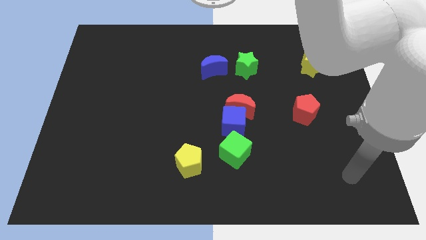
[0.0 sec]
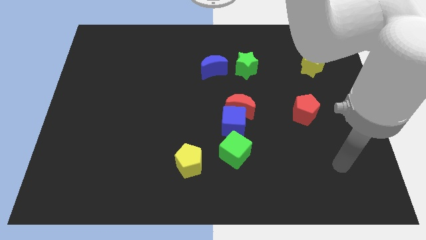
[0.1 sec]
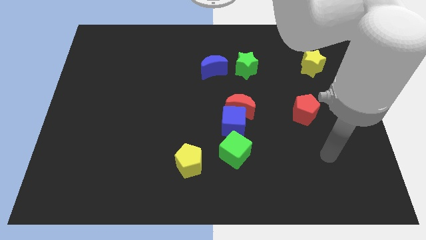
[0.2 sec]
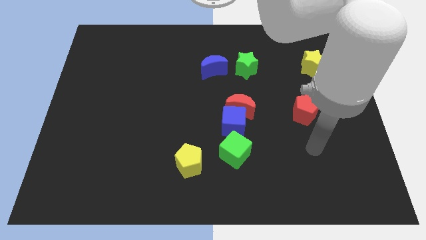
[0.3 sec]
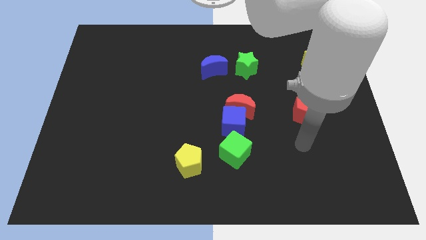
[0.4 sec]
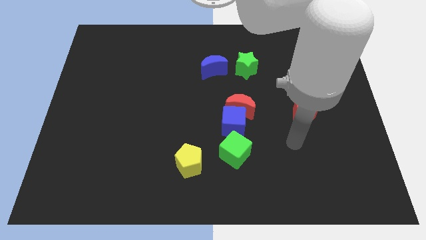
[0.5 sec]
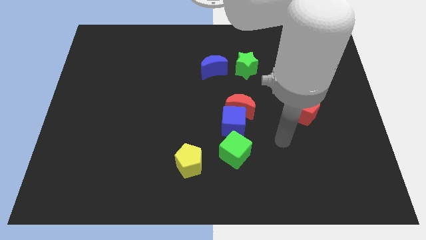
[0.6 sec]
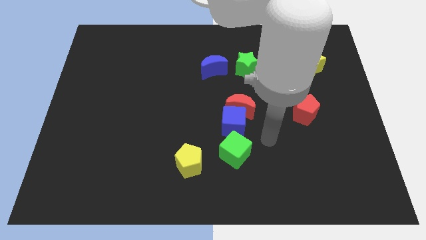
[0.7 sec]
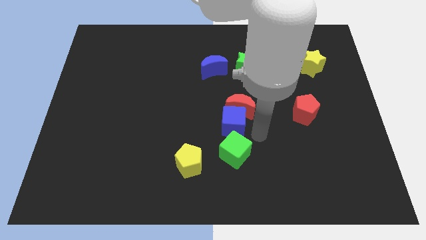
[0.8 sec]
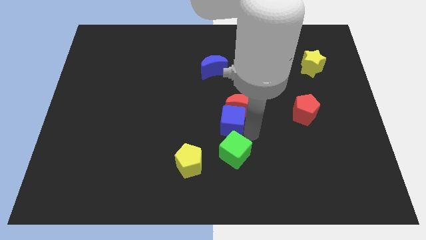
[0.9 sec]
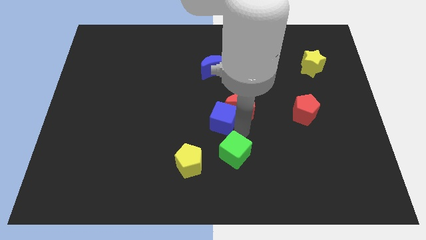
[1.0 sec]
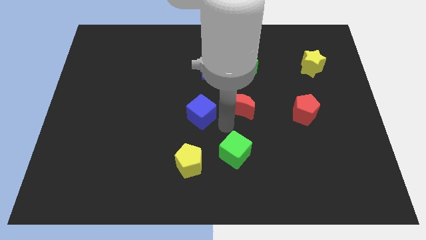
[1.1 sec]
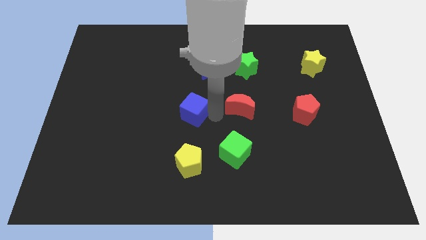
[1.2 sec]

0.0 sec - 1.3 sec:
move the red moon away from the blue cube

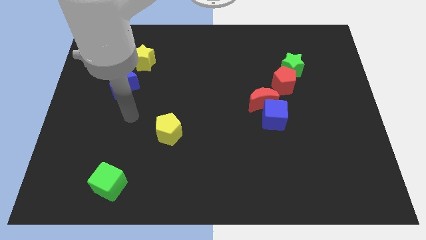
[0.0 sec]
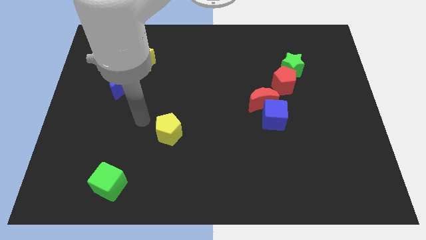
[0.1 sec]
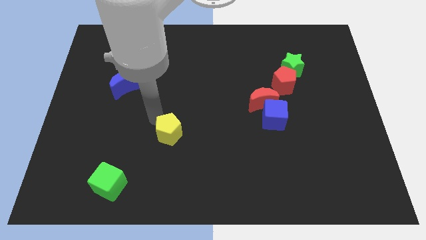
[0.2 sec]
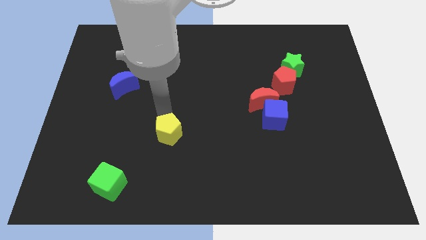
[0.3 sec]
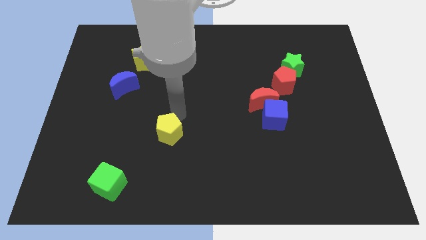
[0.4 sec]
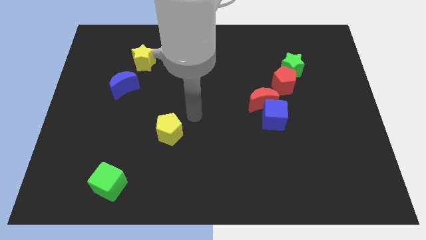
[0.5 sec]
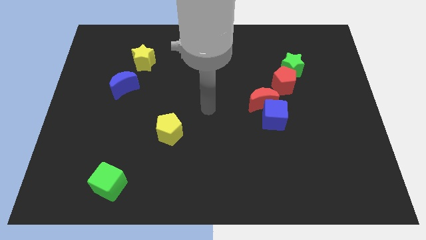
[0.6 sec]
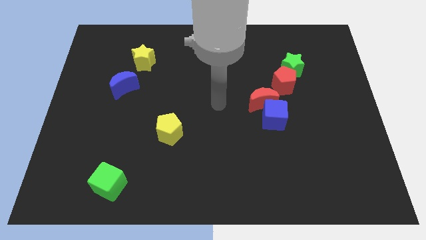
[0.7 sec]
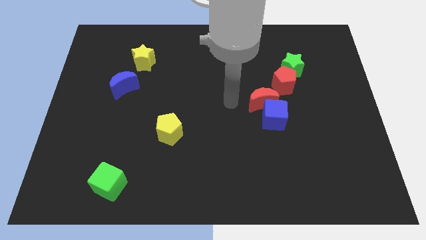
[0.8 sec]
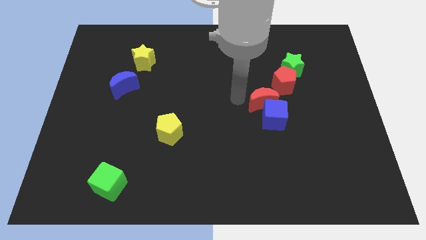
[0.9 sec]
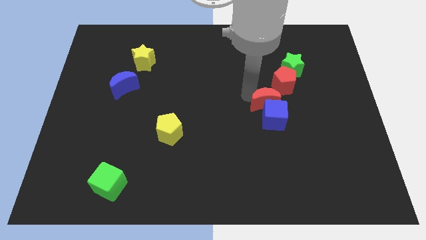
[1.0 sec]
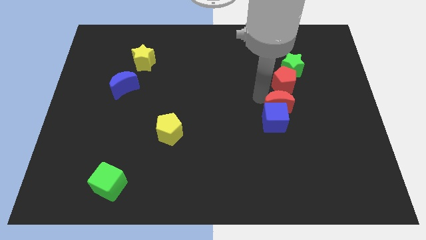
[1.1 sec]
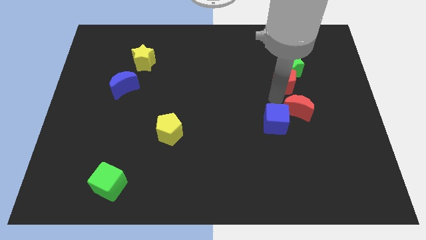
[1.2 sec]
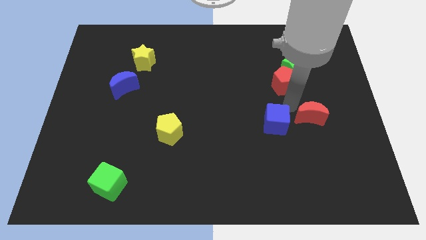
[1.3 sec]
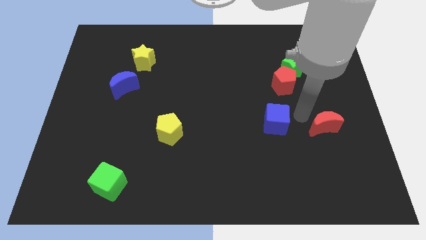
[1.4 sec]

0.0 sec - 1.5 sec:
separate the blue cube from the red moon

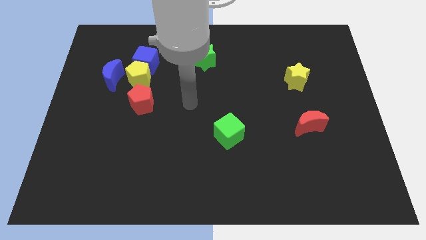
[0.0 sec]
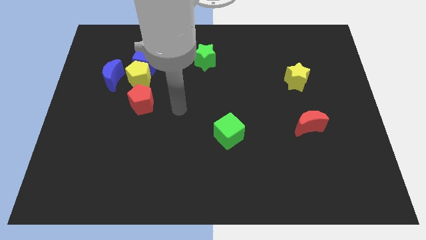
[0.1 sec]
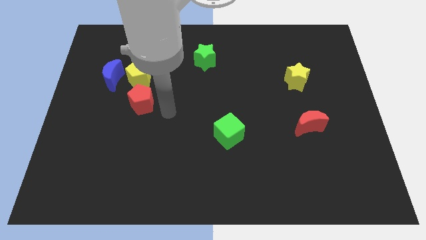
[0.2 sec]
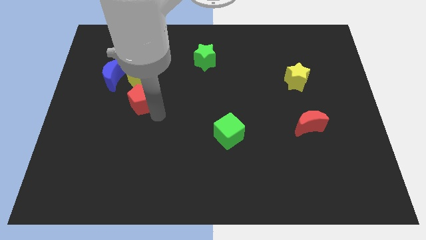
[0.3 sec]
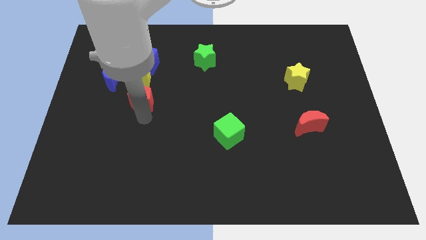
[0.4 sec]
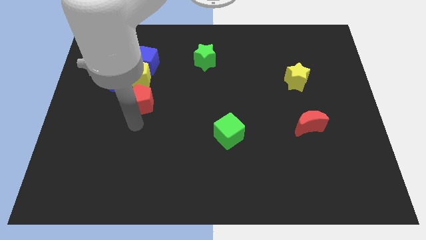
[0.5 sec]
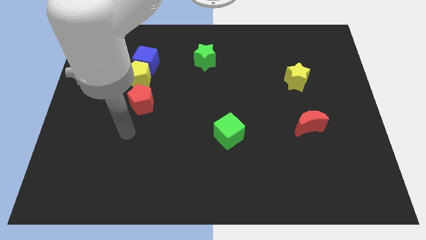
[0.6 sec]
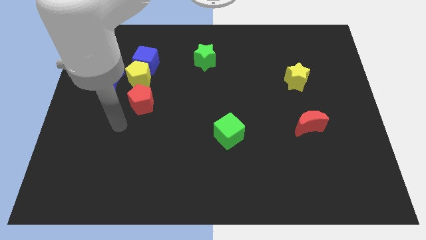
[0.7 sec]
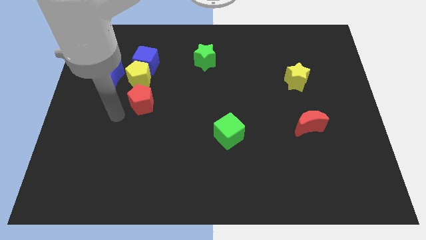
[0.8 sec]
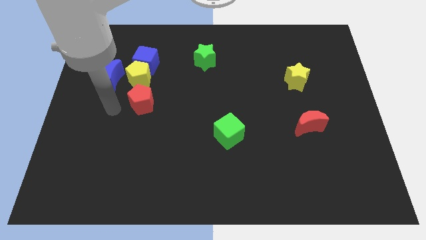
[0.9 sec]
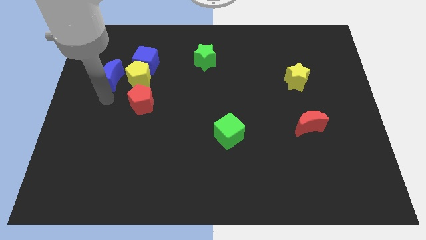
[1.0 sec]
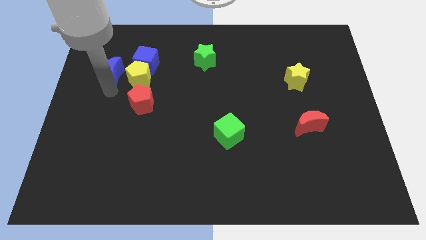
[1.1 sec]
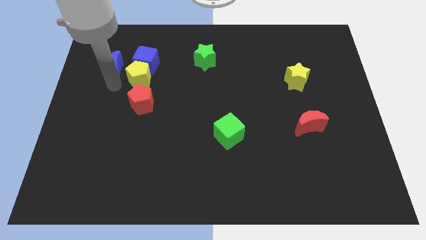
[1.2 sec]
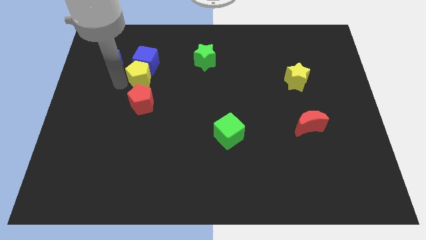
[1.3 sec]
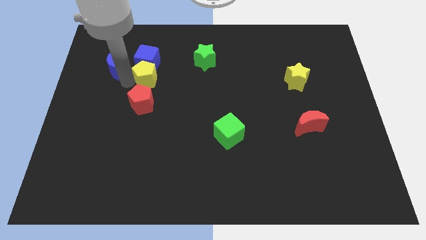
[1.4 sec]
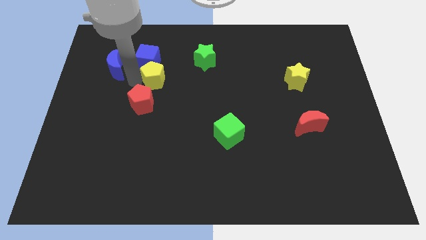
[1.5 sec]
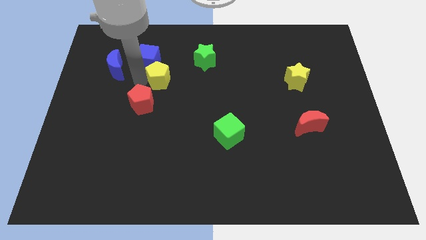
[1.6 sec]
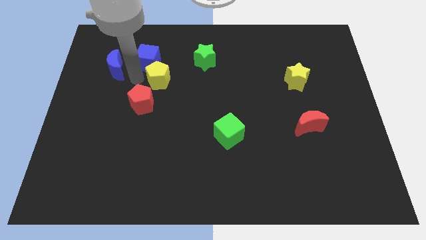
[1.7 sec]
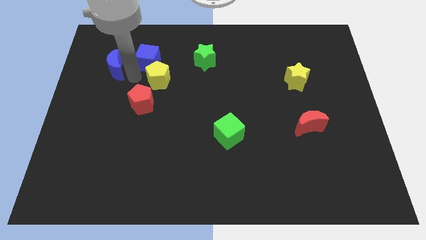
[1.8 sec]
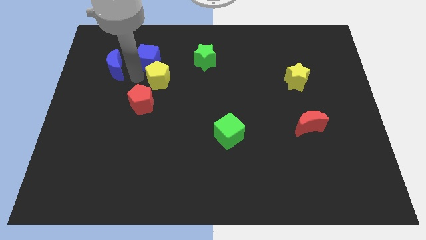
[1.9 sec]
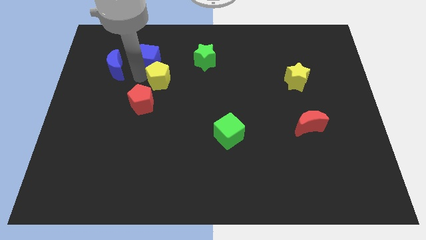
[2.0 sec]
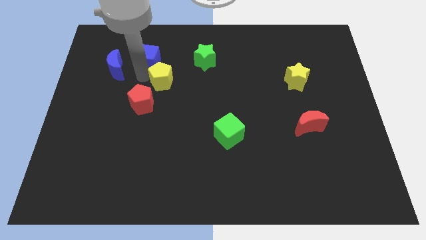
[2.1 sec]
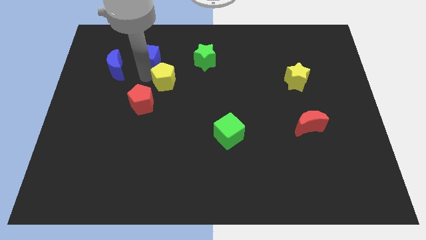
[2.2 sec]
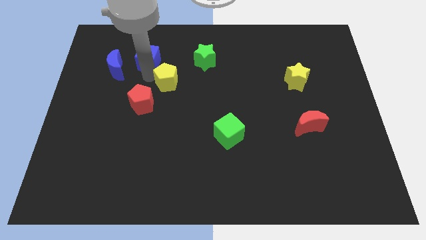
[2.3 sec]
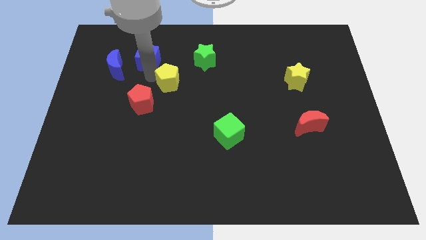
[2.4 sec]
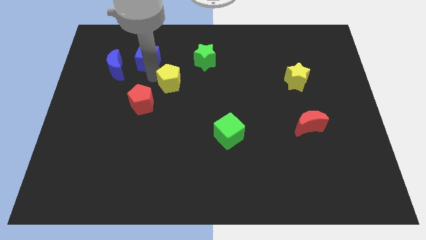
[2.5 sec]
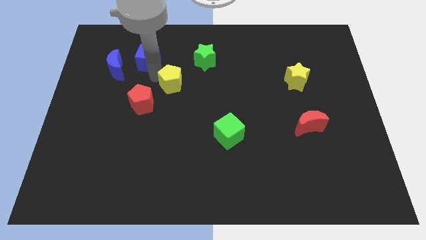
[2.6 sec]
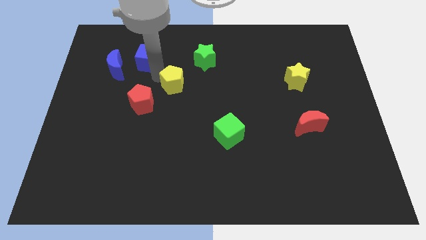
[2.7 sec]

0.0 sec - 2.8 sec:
separate the yellow pentagon from the blue cube, blue moon, and red pentagon

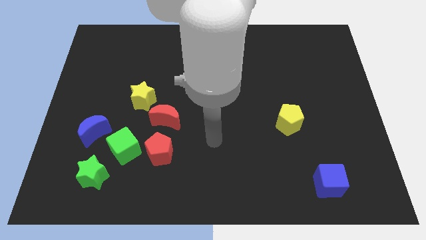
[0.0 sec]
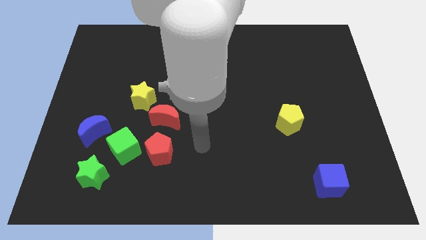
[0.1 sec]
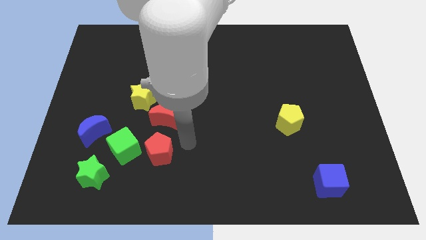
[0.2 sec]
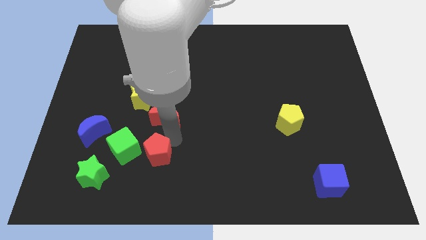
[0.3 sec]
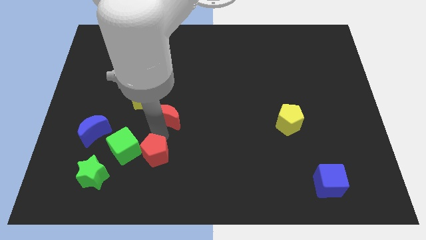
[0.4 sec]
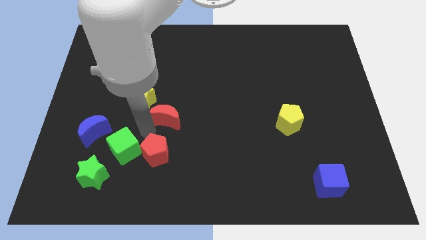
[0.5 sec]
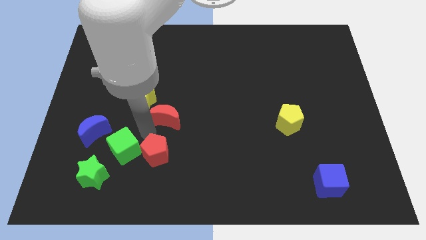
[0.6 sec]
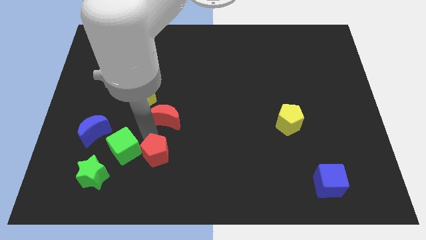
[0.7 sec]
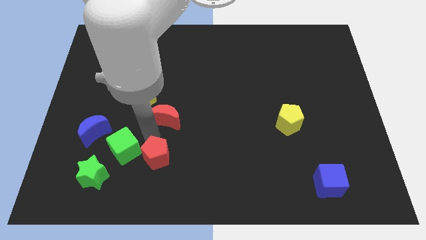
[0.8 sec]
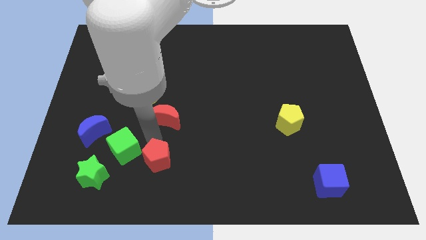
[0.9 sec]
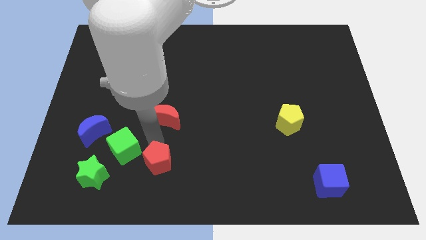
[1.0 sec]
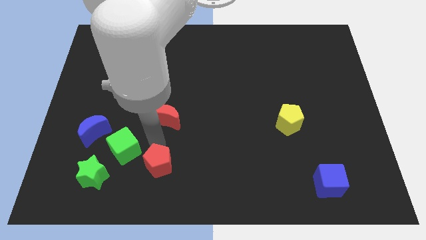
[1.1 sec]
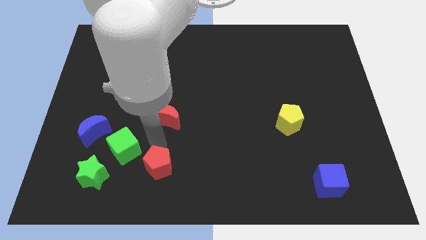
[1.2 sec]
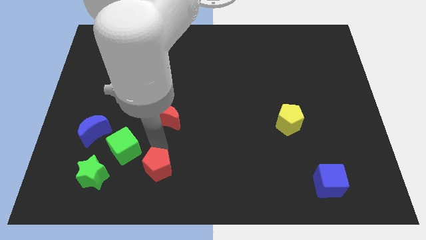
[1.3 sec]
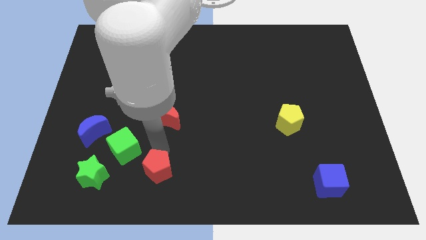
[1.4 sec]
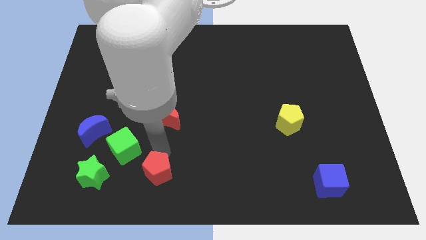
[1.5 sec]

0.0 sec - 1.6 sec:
move the red pentagon away from the green cube and red moon

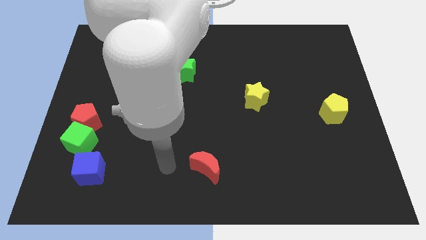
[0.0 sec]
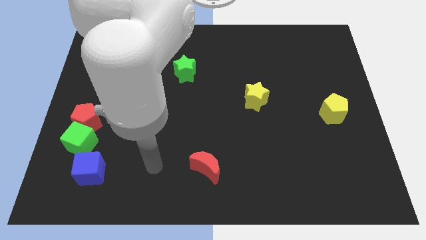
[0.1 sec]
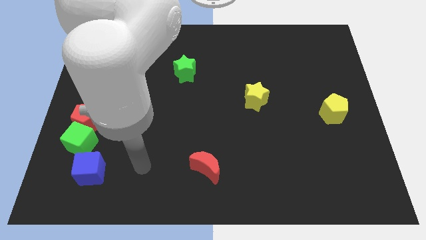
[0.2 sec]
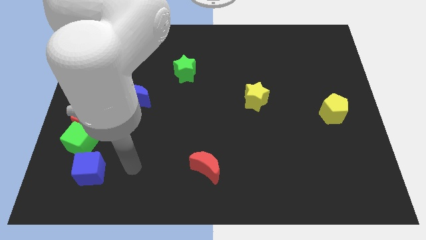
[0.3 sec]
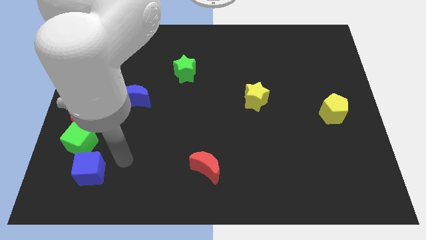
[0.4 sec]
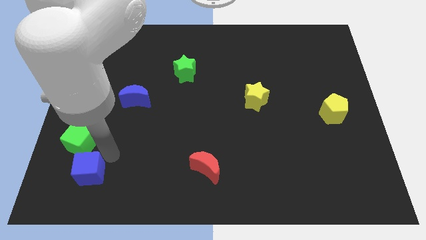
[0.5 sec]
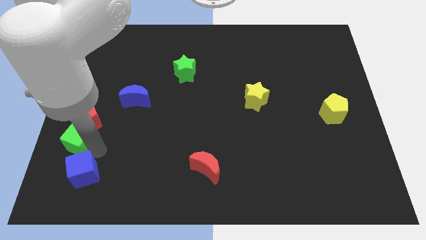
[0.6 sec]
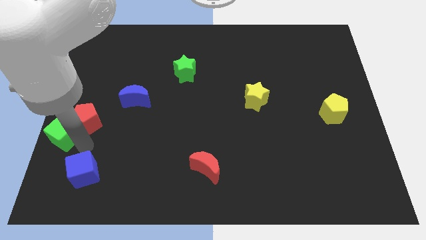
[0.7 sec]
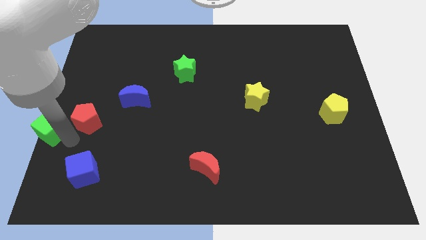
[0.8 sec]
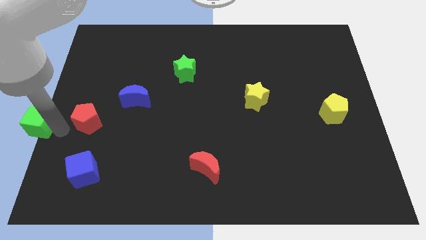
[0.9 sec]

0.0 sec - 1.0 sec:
pull the red pentagon apart from the green cube

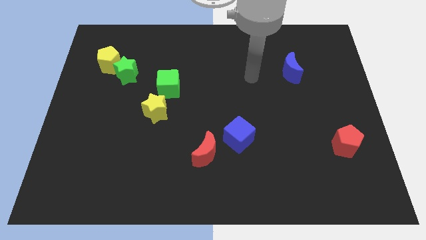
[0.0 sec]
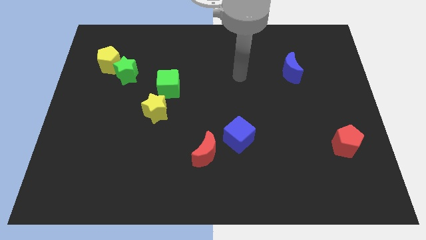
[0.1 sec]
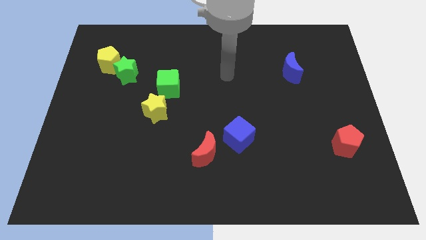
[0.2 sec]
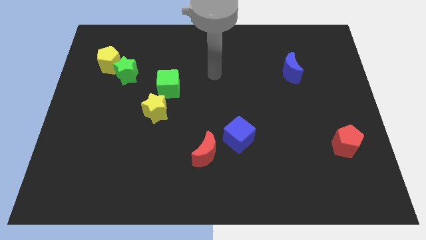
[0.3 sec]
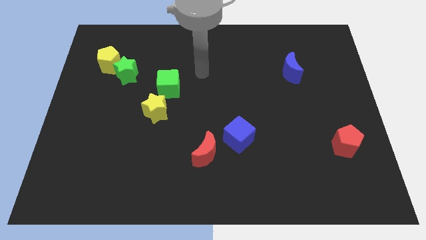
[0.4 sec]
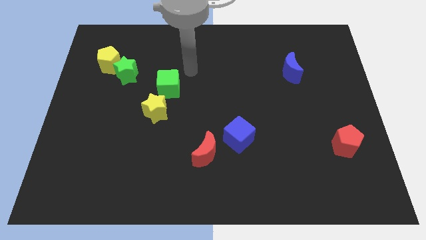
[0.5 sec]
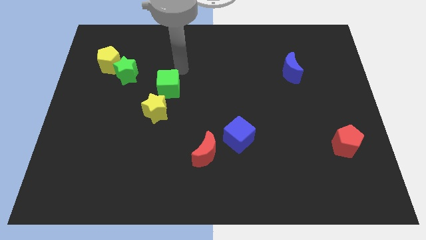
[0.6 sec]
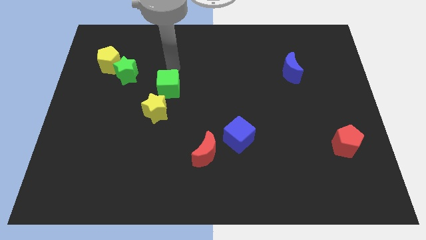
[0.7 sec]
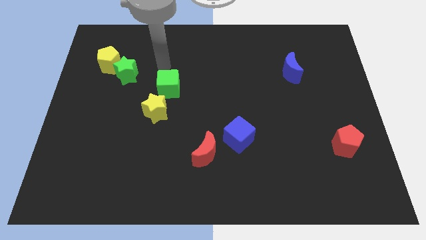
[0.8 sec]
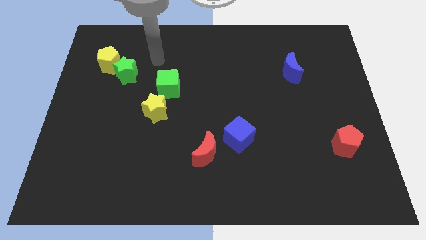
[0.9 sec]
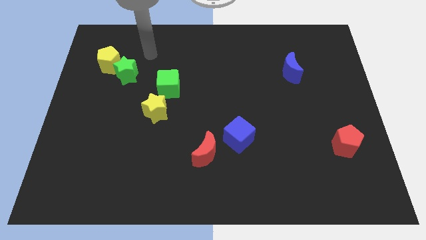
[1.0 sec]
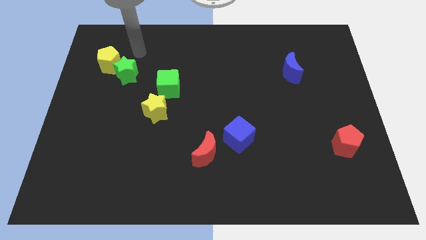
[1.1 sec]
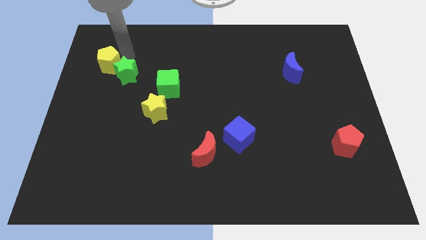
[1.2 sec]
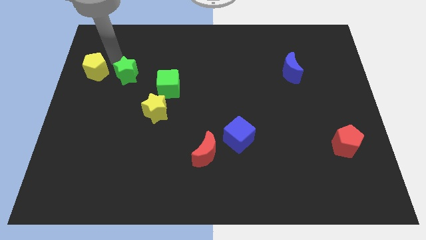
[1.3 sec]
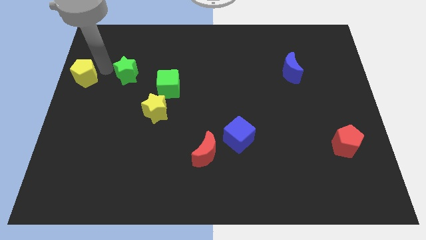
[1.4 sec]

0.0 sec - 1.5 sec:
move the green star away from the yellow pentagon
